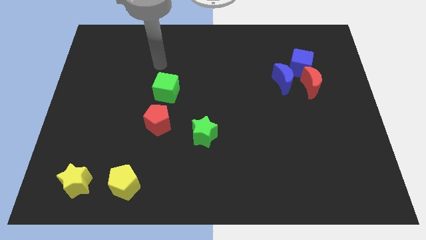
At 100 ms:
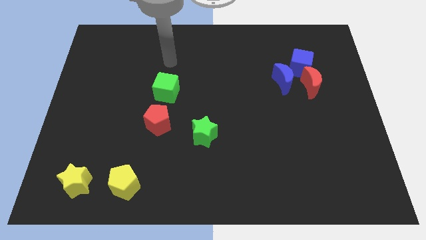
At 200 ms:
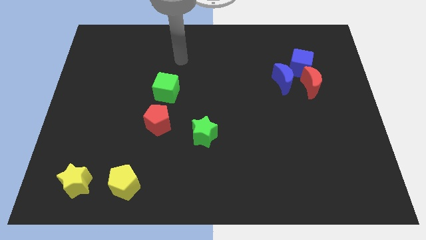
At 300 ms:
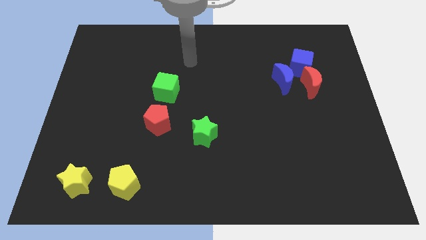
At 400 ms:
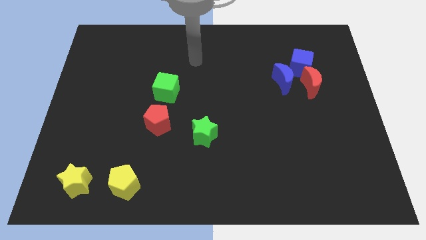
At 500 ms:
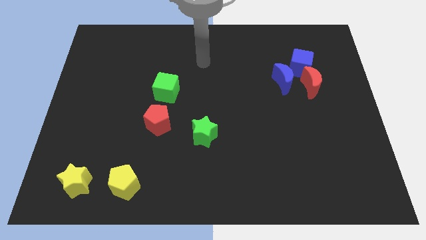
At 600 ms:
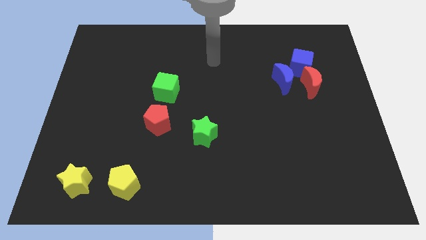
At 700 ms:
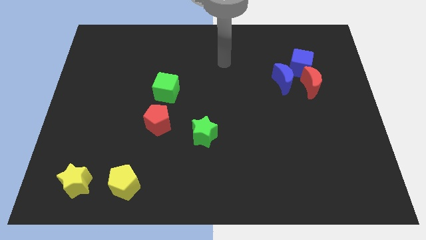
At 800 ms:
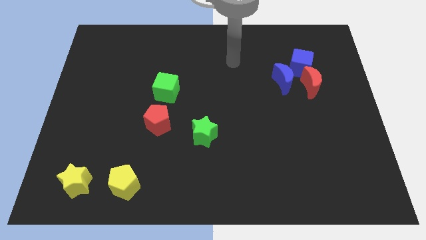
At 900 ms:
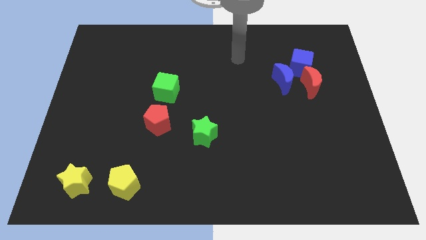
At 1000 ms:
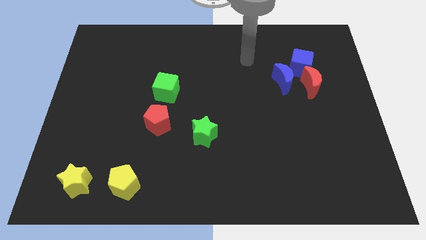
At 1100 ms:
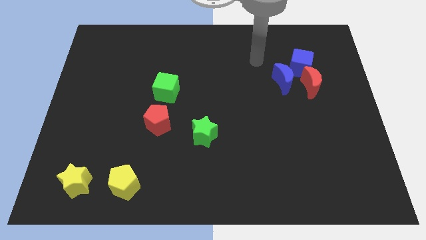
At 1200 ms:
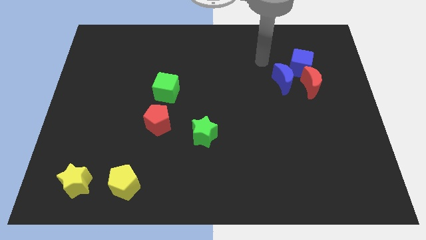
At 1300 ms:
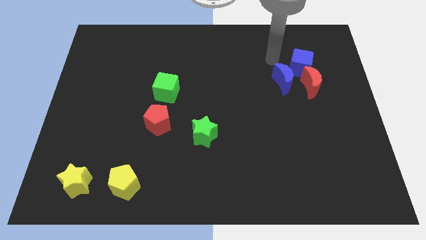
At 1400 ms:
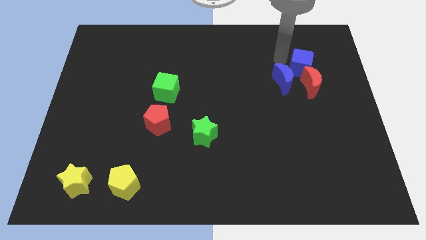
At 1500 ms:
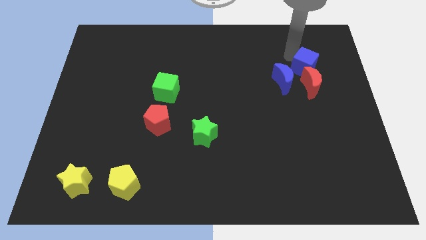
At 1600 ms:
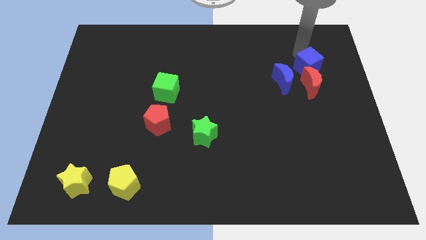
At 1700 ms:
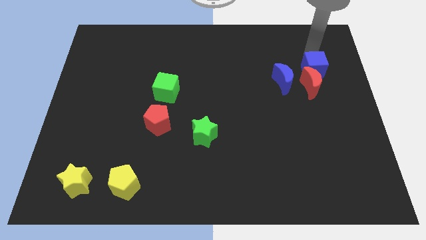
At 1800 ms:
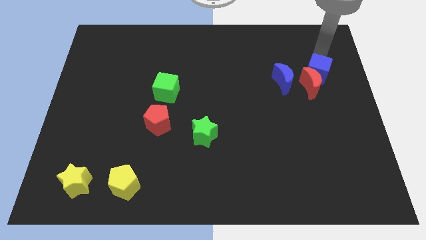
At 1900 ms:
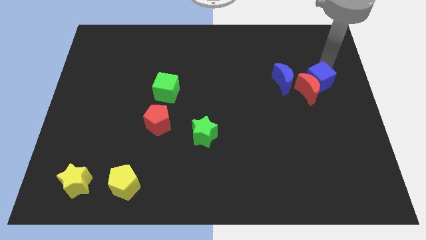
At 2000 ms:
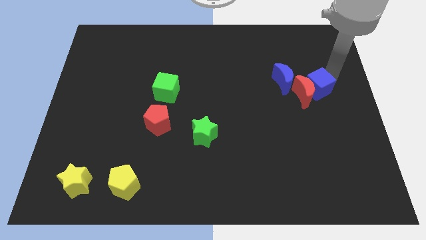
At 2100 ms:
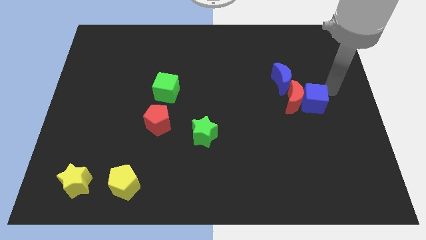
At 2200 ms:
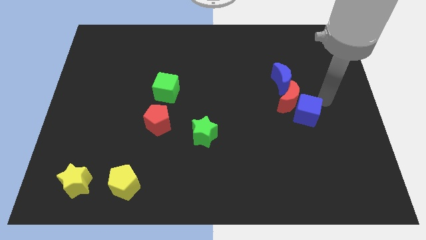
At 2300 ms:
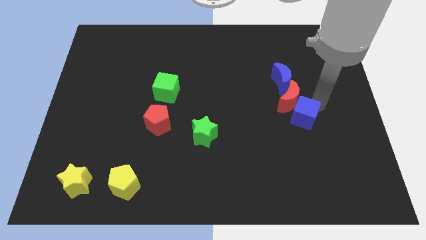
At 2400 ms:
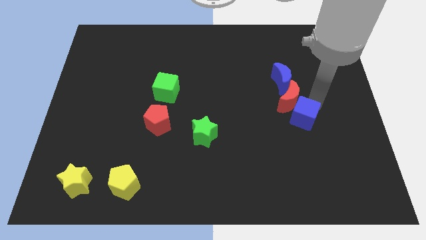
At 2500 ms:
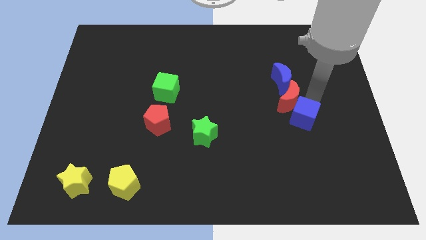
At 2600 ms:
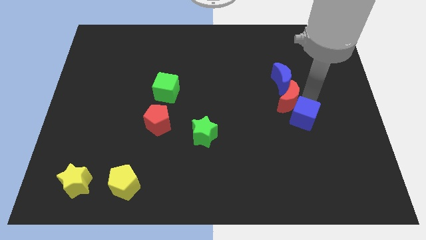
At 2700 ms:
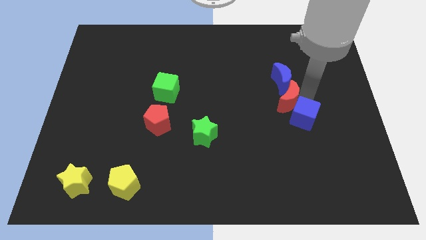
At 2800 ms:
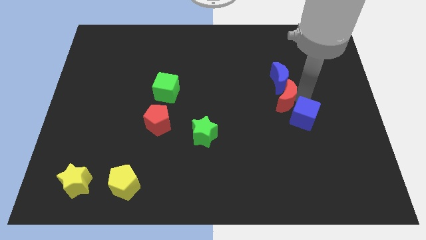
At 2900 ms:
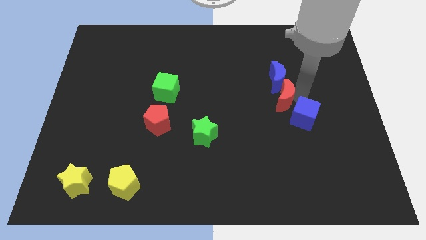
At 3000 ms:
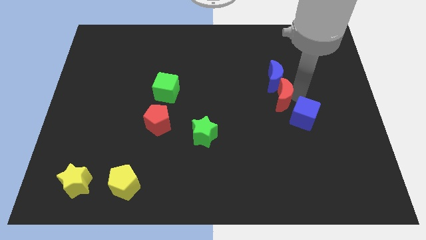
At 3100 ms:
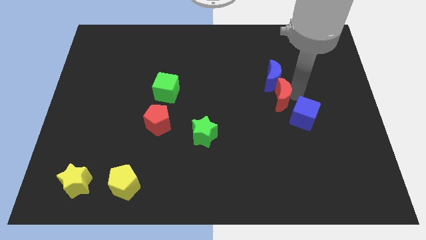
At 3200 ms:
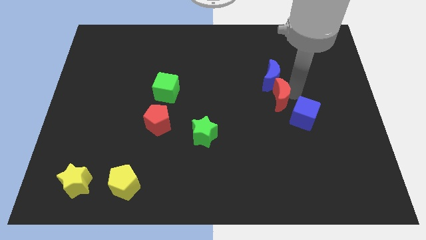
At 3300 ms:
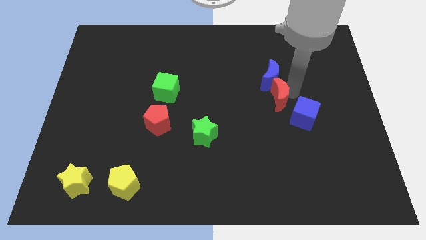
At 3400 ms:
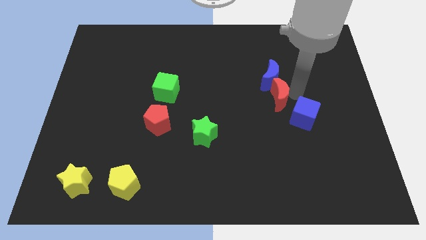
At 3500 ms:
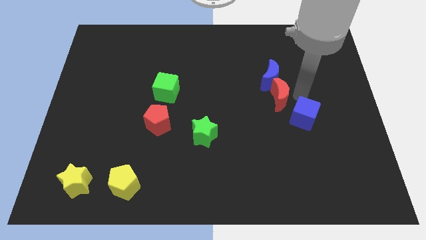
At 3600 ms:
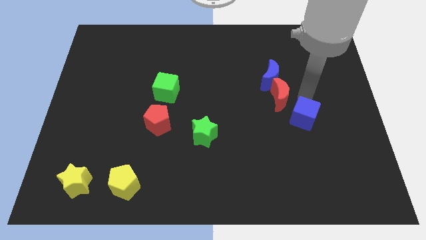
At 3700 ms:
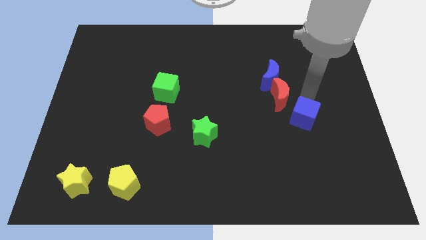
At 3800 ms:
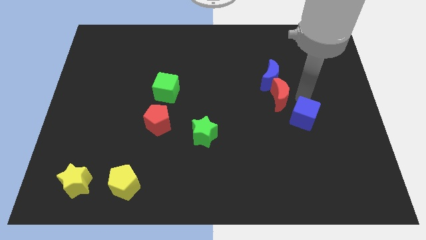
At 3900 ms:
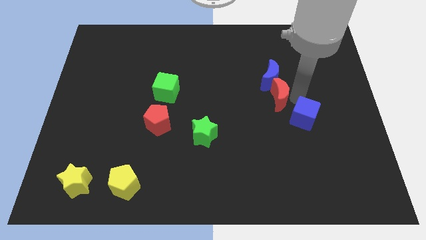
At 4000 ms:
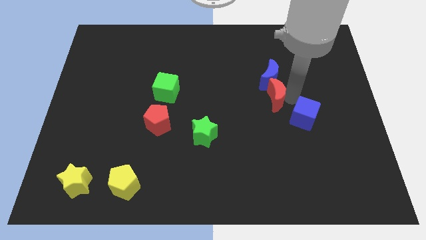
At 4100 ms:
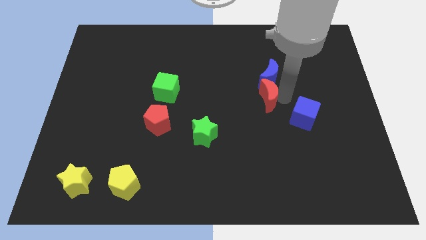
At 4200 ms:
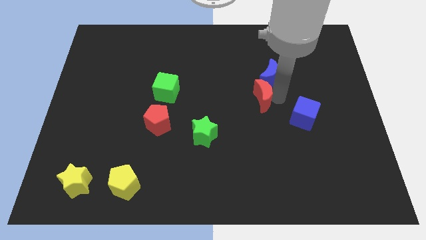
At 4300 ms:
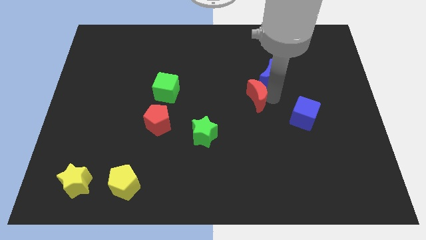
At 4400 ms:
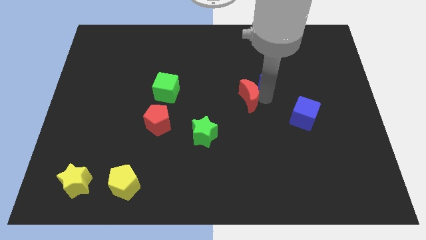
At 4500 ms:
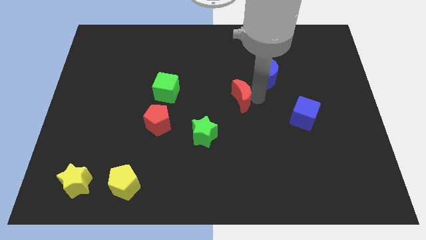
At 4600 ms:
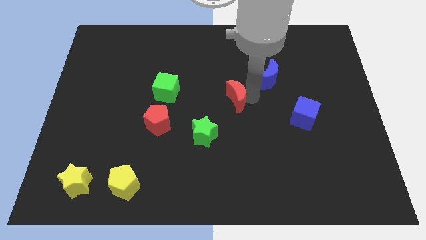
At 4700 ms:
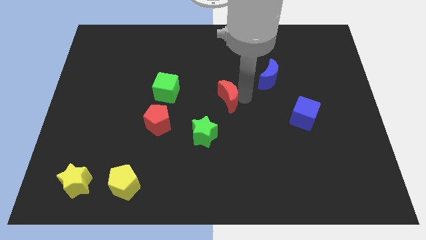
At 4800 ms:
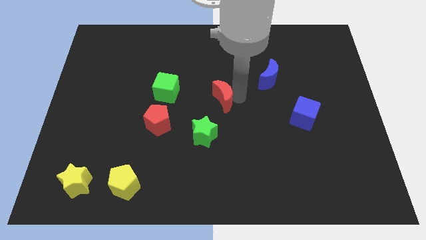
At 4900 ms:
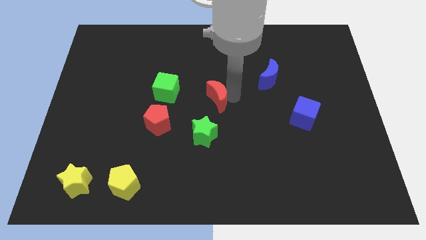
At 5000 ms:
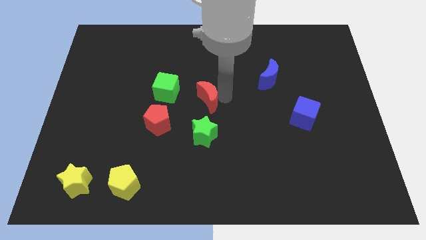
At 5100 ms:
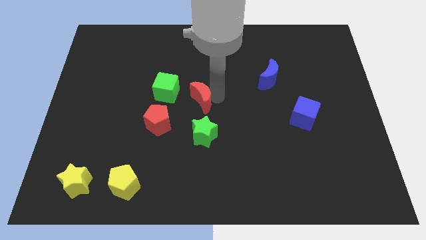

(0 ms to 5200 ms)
push the red moon diagonally down and to the right of the green cube

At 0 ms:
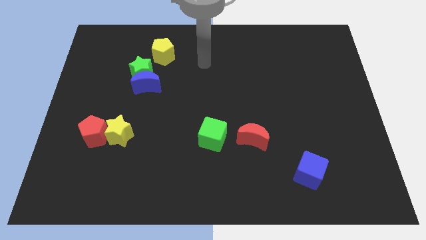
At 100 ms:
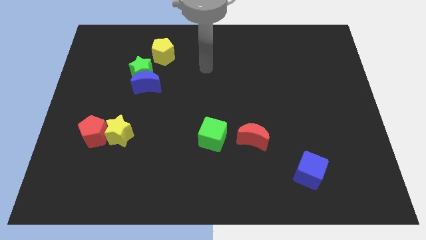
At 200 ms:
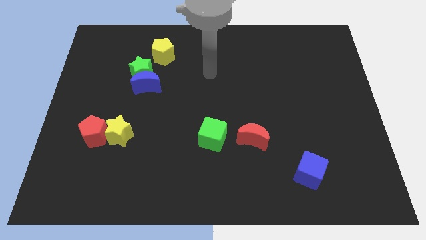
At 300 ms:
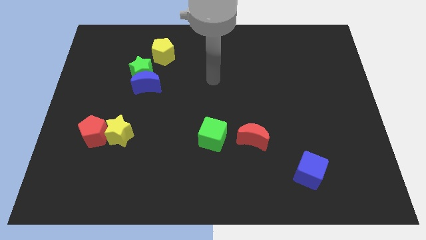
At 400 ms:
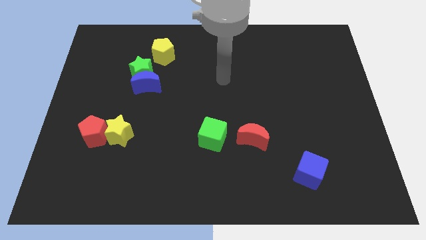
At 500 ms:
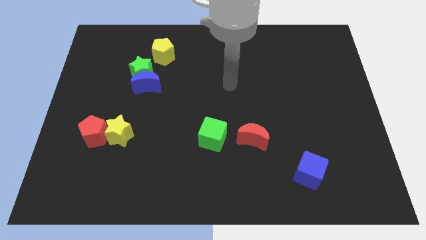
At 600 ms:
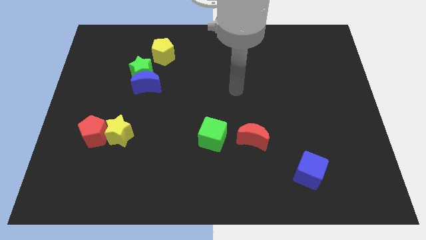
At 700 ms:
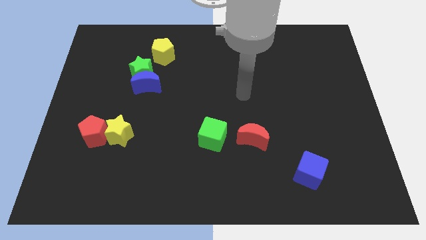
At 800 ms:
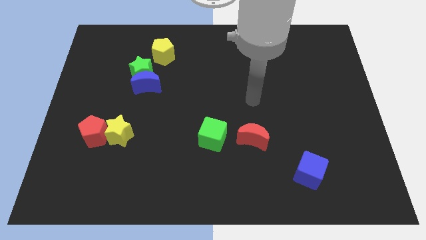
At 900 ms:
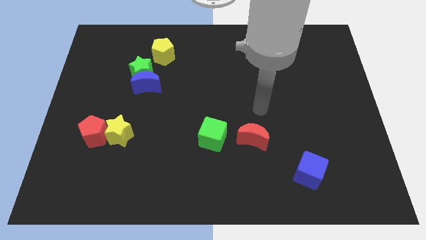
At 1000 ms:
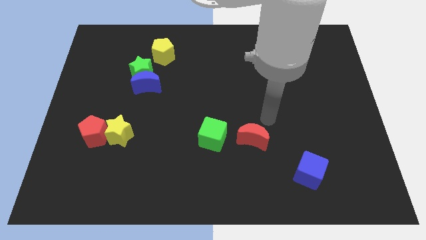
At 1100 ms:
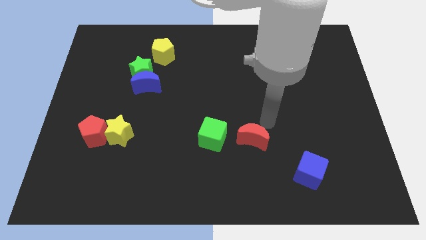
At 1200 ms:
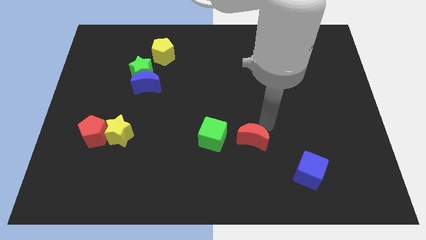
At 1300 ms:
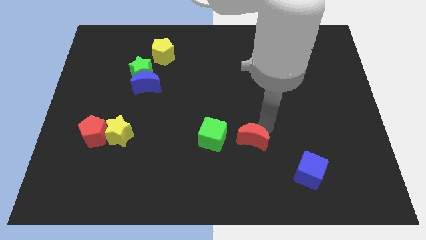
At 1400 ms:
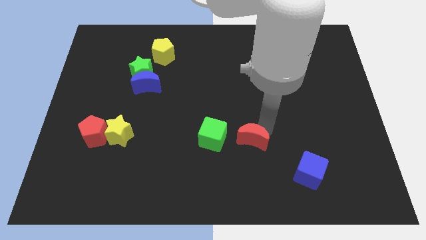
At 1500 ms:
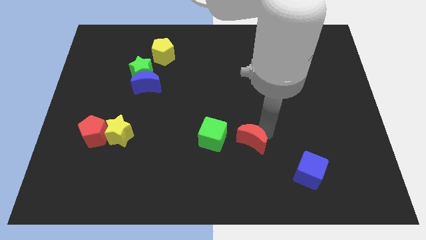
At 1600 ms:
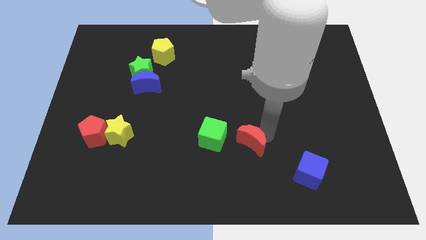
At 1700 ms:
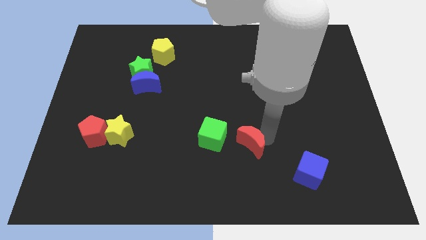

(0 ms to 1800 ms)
move the red moon to the bottom right of the green cube
